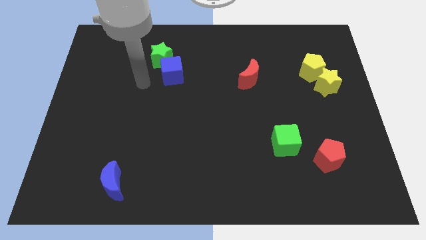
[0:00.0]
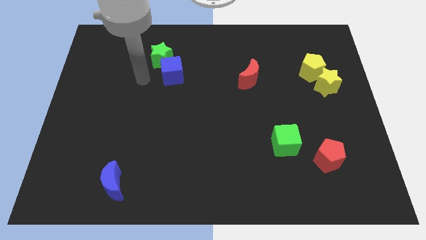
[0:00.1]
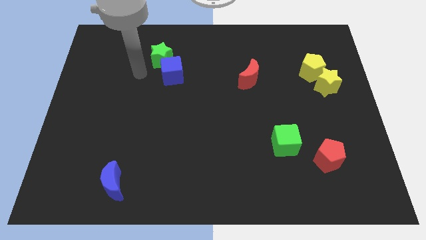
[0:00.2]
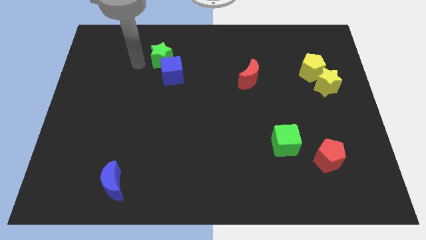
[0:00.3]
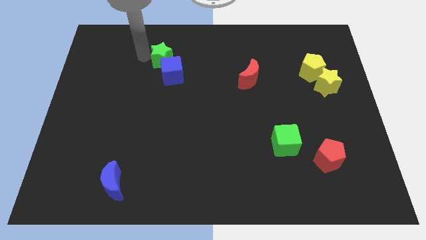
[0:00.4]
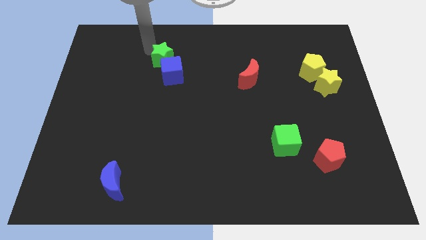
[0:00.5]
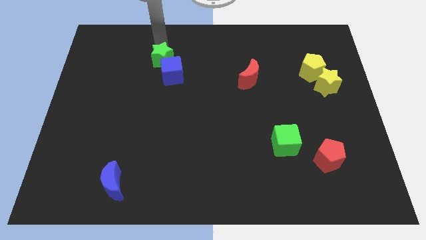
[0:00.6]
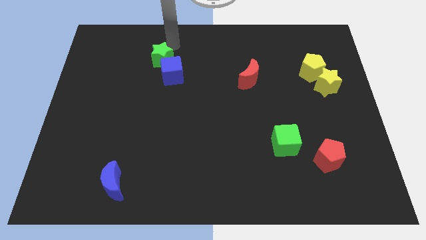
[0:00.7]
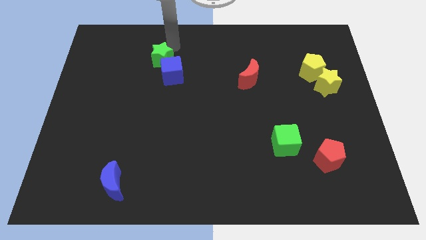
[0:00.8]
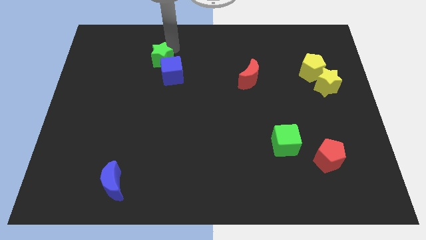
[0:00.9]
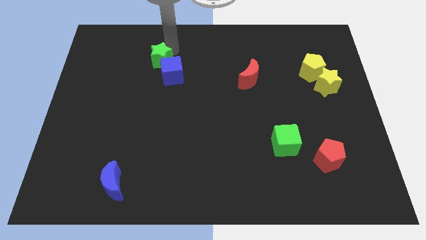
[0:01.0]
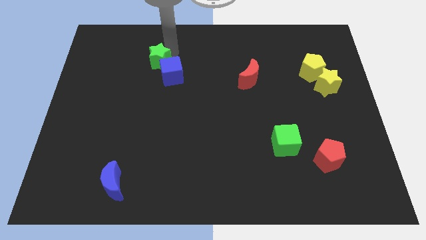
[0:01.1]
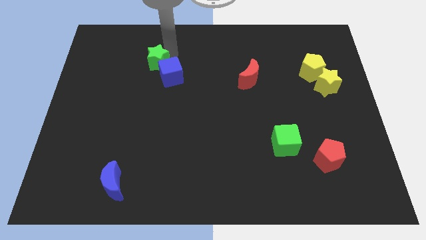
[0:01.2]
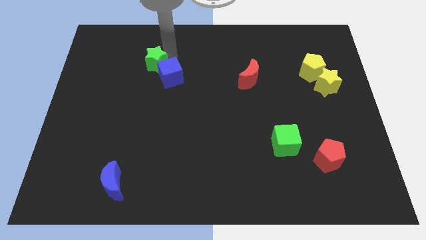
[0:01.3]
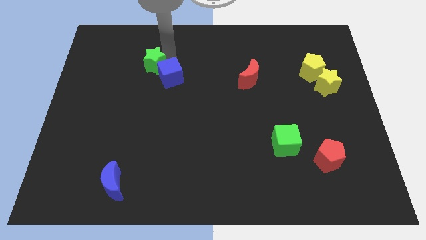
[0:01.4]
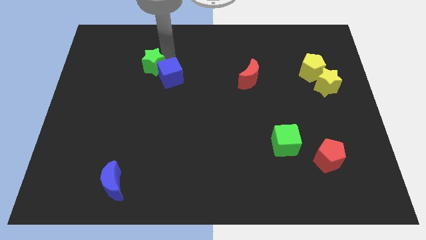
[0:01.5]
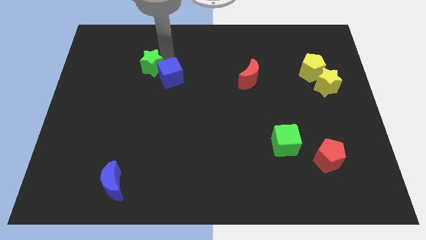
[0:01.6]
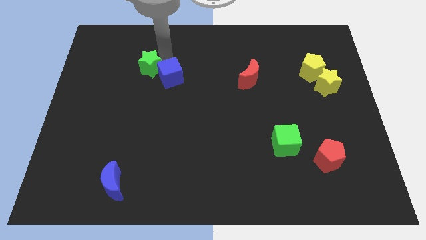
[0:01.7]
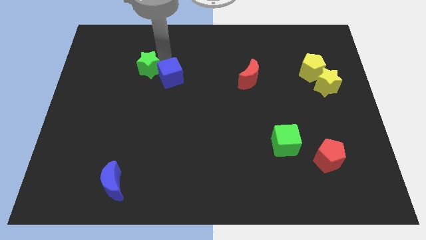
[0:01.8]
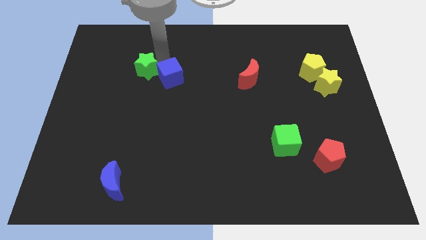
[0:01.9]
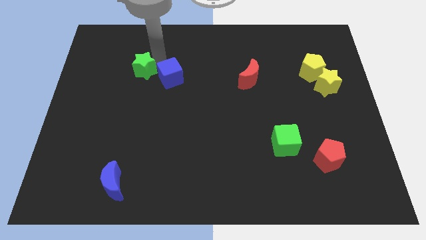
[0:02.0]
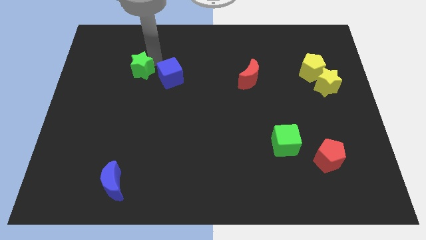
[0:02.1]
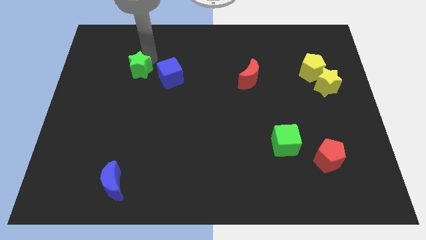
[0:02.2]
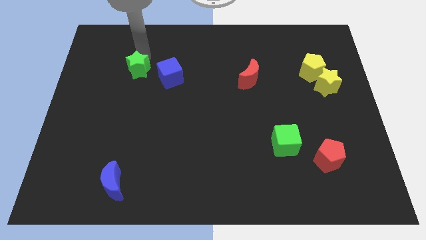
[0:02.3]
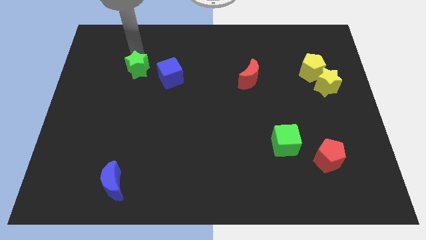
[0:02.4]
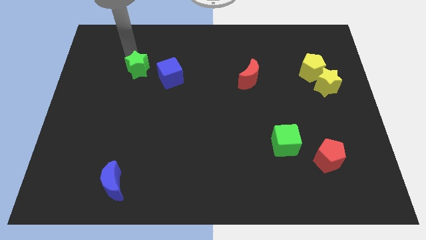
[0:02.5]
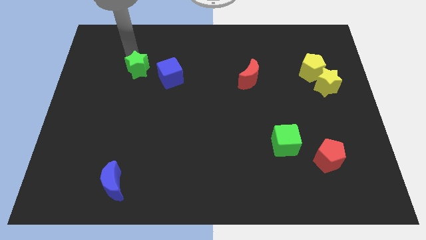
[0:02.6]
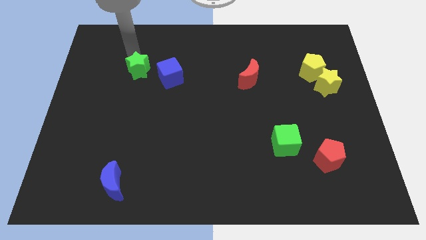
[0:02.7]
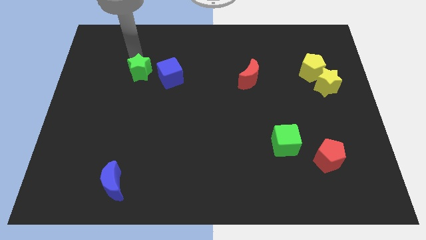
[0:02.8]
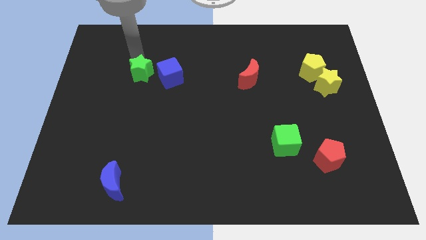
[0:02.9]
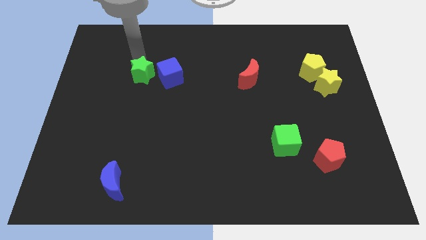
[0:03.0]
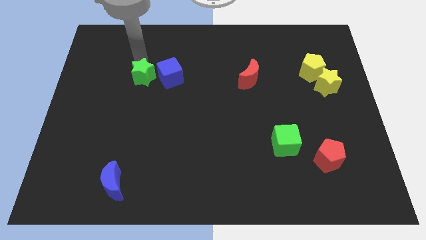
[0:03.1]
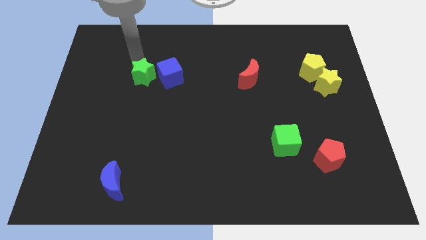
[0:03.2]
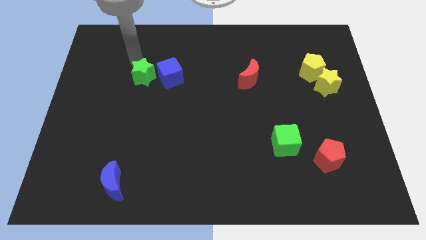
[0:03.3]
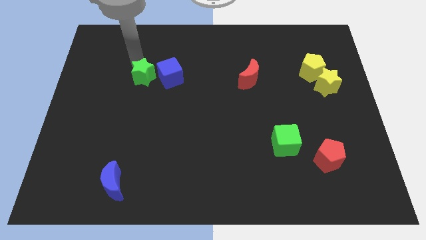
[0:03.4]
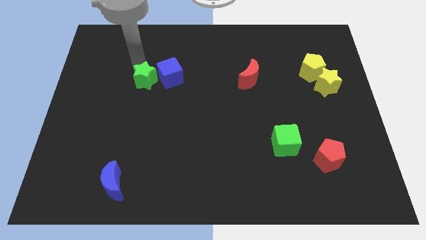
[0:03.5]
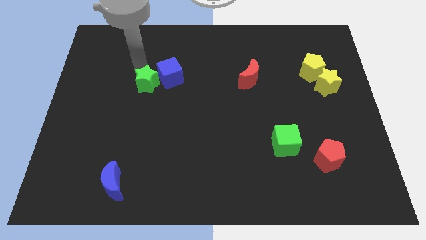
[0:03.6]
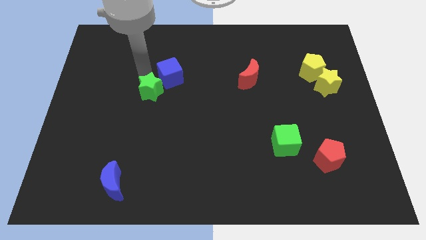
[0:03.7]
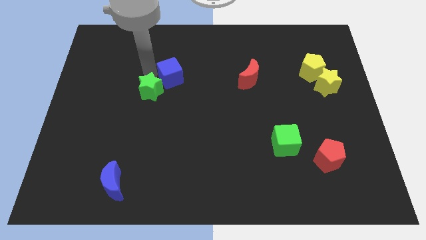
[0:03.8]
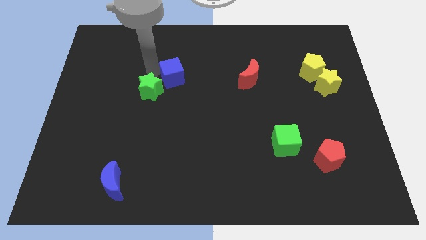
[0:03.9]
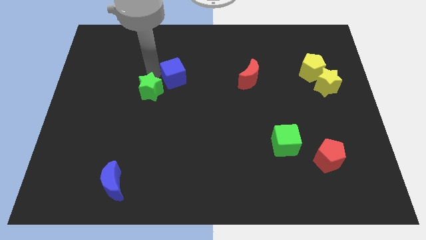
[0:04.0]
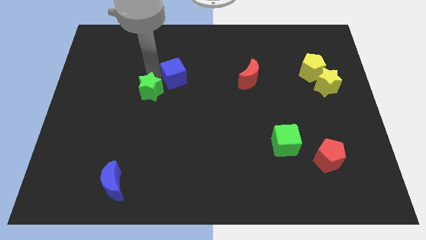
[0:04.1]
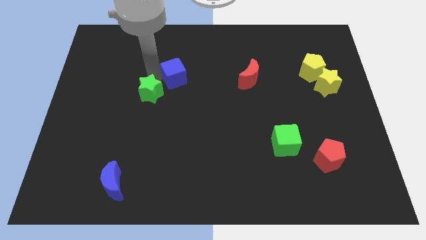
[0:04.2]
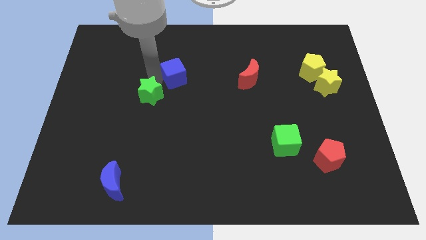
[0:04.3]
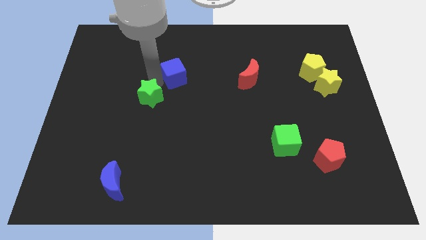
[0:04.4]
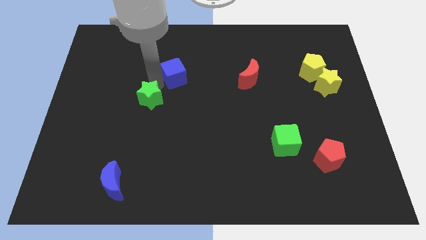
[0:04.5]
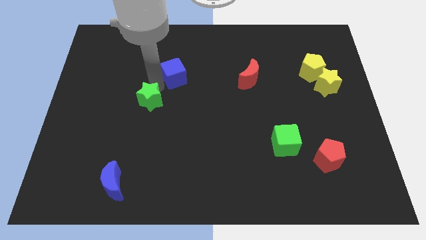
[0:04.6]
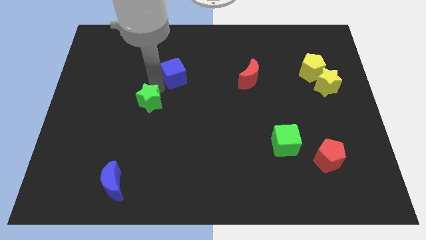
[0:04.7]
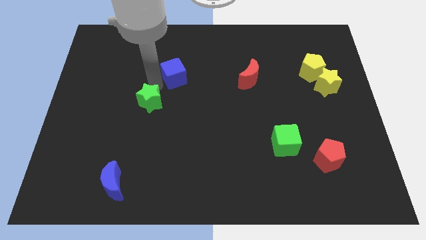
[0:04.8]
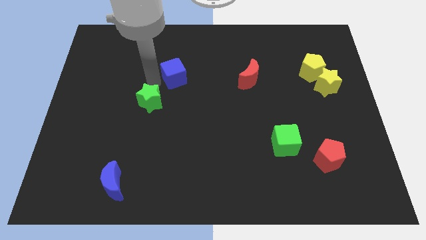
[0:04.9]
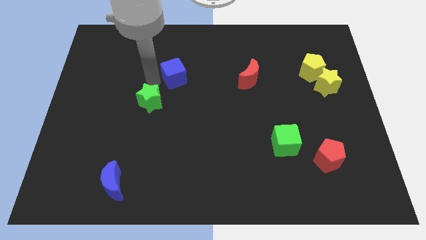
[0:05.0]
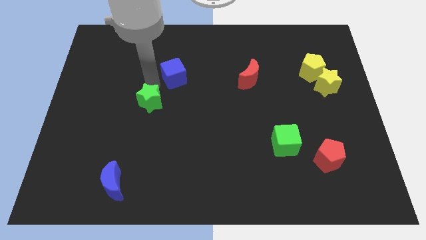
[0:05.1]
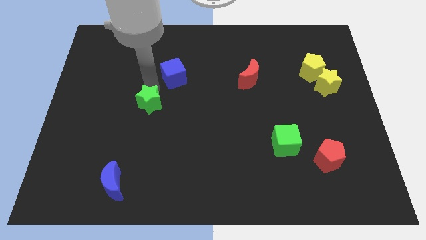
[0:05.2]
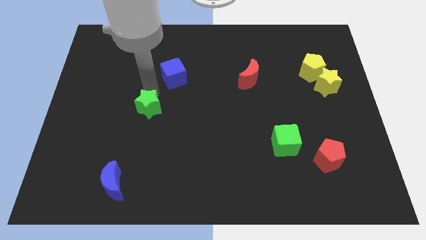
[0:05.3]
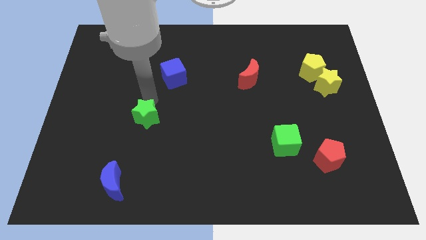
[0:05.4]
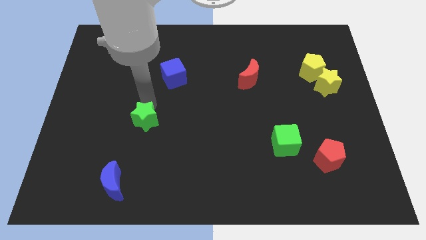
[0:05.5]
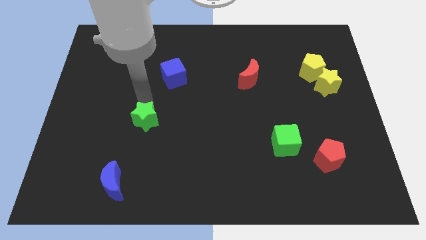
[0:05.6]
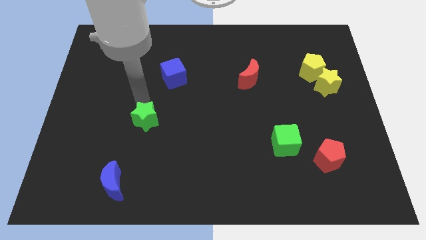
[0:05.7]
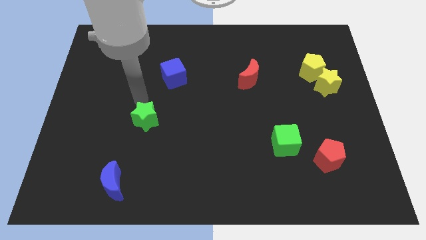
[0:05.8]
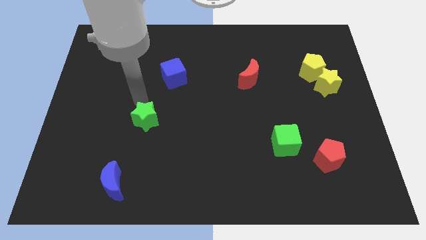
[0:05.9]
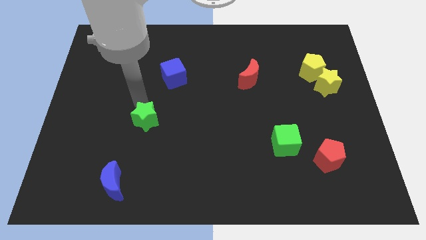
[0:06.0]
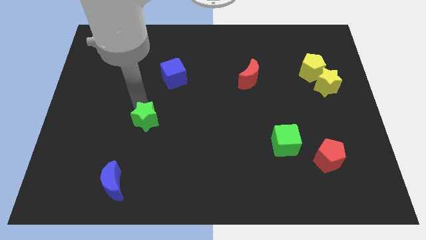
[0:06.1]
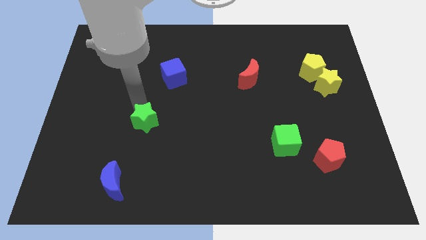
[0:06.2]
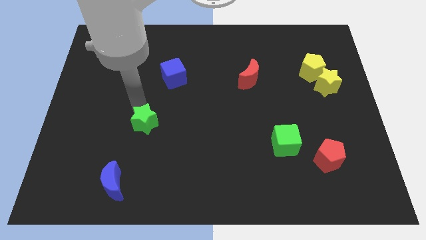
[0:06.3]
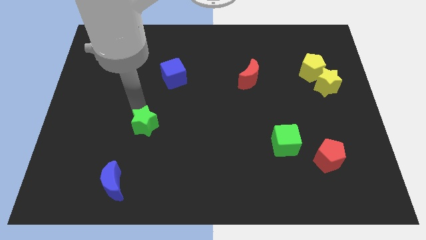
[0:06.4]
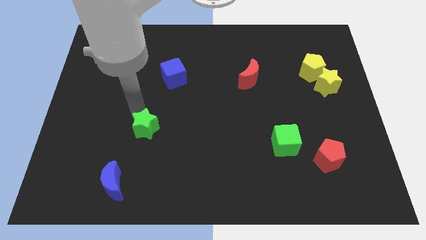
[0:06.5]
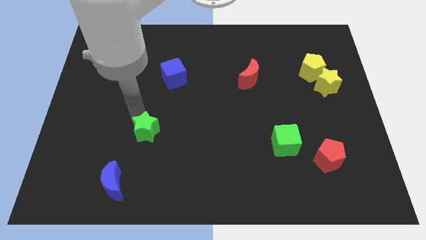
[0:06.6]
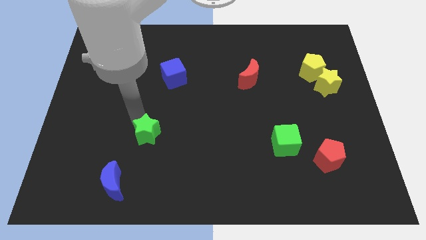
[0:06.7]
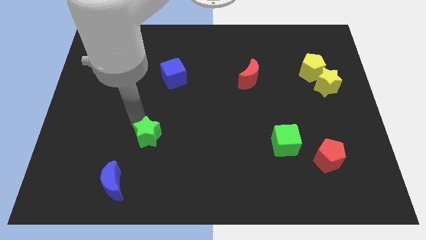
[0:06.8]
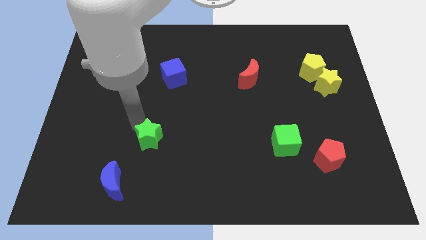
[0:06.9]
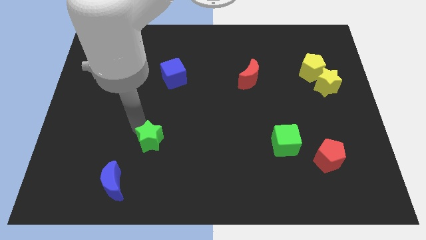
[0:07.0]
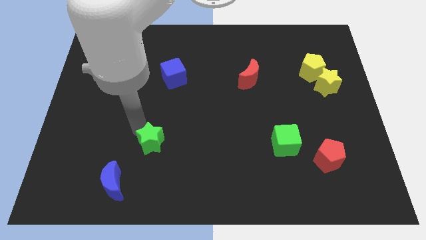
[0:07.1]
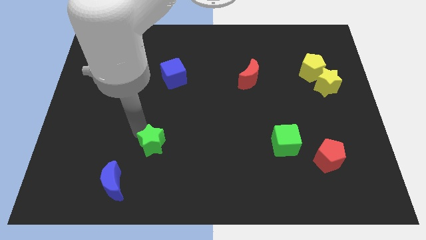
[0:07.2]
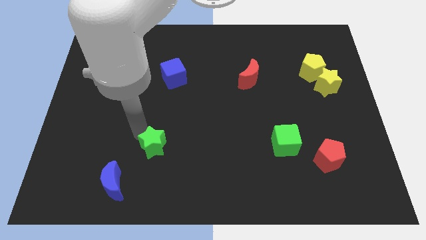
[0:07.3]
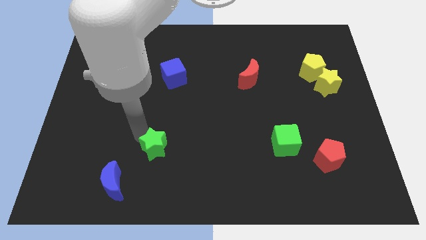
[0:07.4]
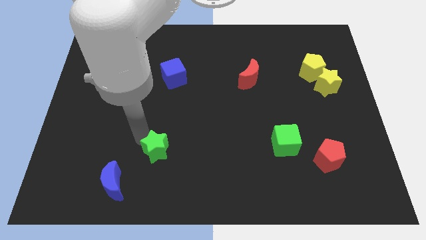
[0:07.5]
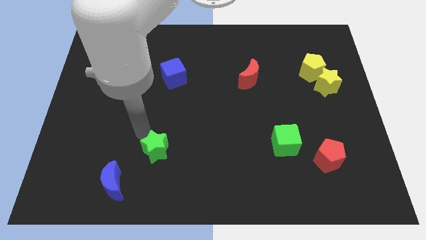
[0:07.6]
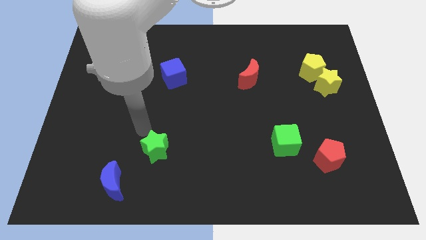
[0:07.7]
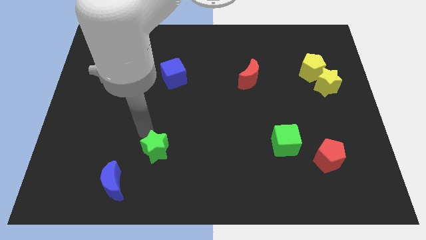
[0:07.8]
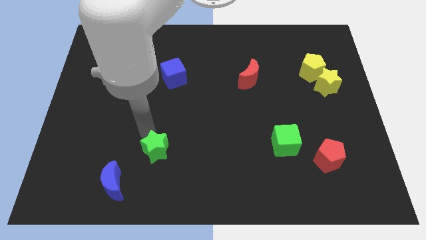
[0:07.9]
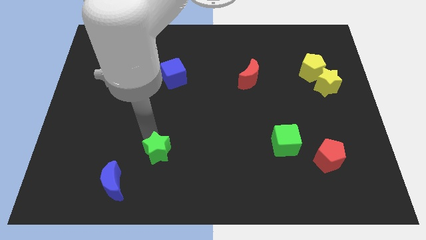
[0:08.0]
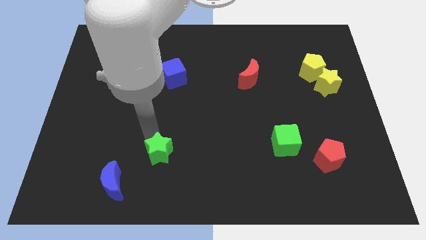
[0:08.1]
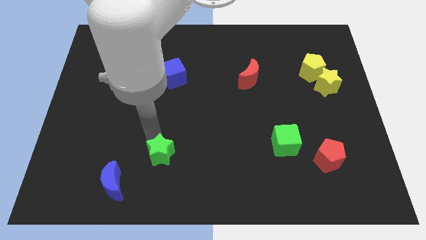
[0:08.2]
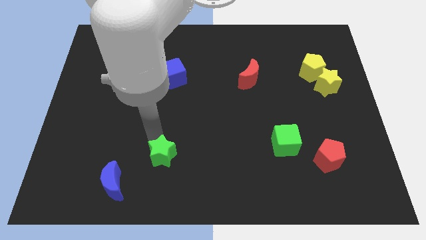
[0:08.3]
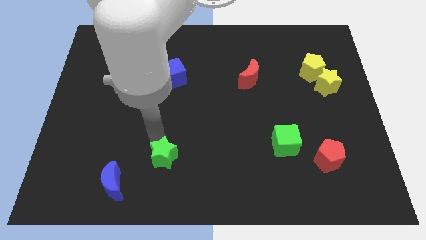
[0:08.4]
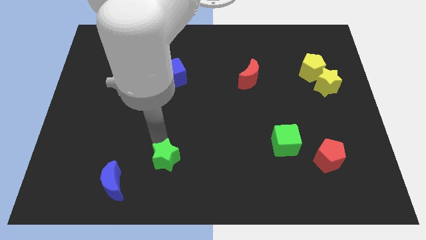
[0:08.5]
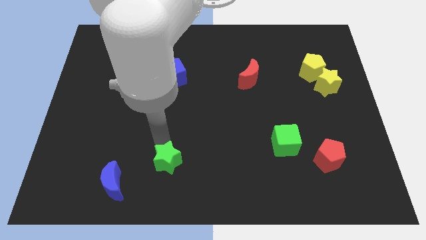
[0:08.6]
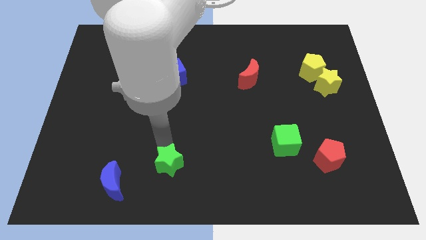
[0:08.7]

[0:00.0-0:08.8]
slide the green star to the right side of the blue moon
